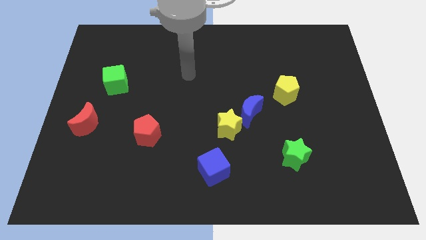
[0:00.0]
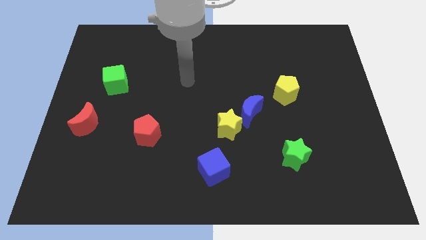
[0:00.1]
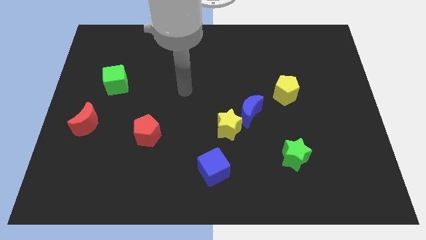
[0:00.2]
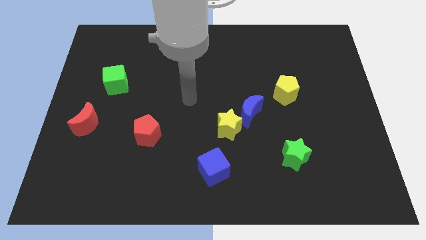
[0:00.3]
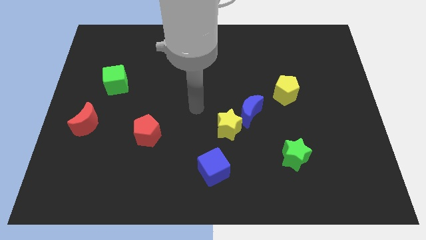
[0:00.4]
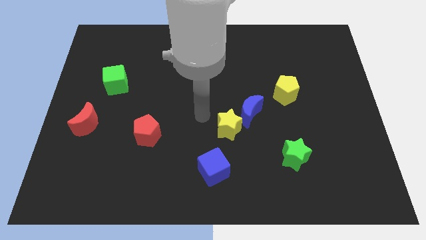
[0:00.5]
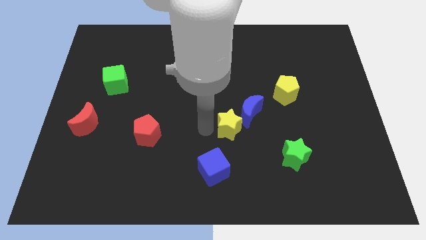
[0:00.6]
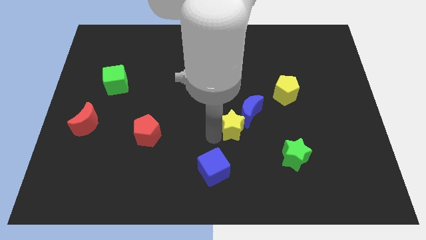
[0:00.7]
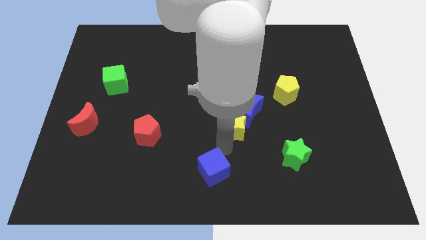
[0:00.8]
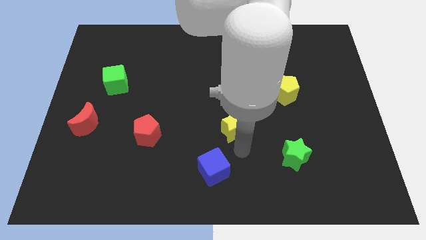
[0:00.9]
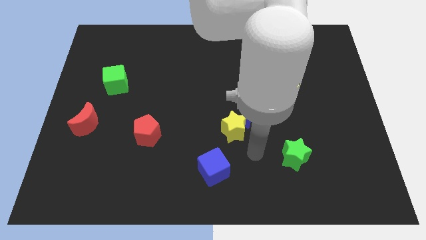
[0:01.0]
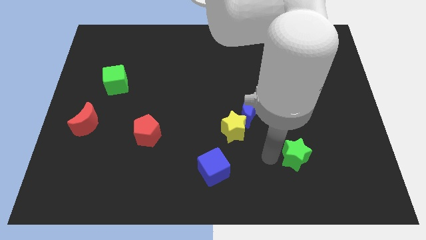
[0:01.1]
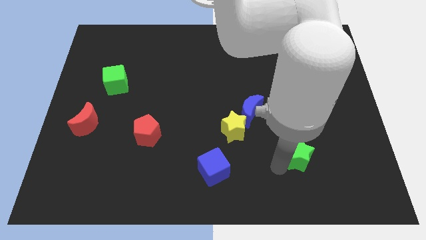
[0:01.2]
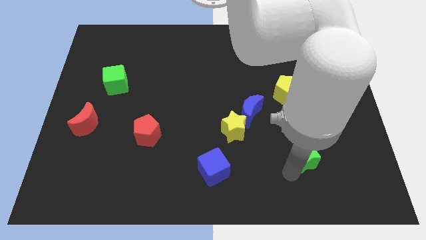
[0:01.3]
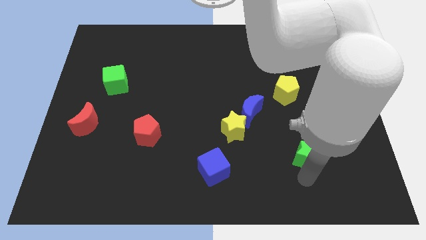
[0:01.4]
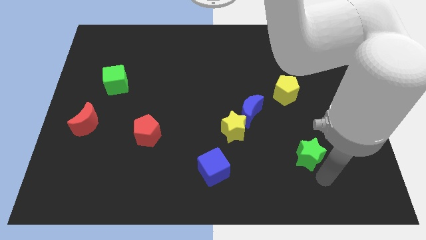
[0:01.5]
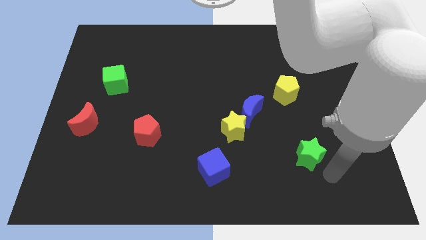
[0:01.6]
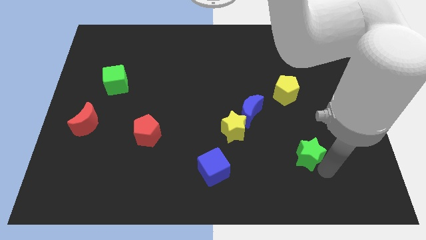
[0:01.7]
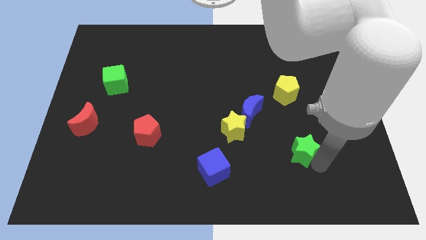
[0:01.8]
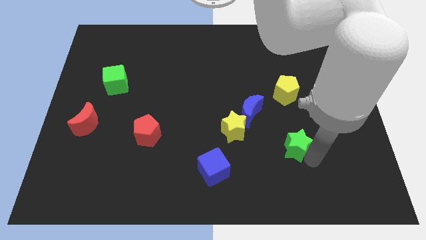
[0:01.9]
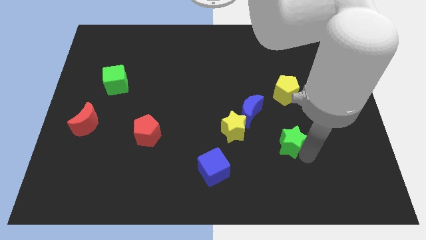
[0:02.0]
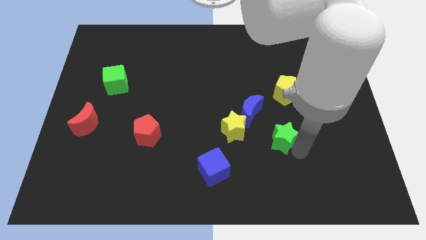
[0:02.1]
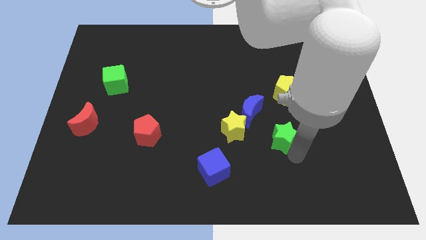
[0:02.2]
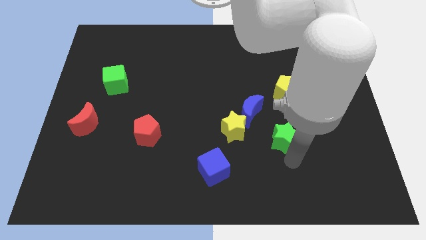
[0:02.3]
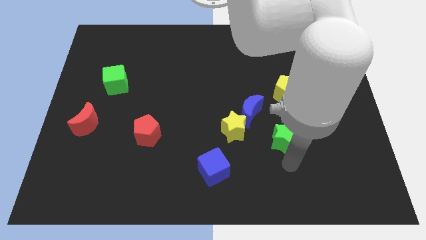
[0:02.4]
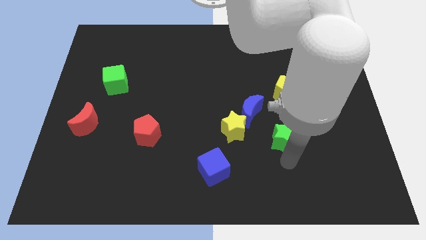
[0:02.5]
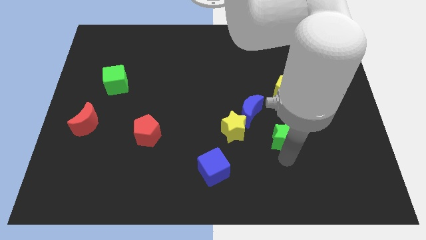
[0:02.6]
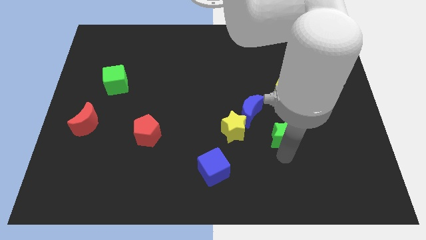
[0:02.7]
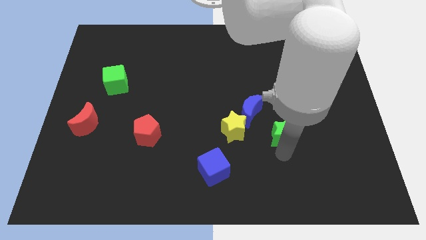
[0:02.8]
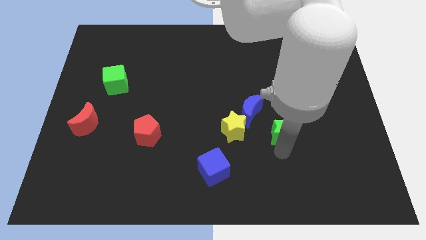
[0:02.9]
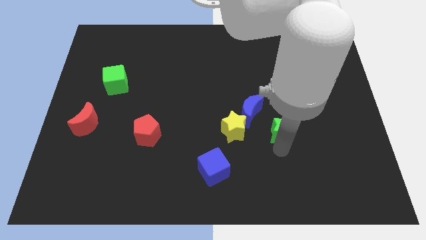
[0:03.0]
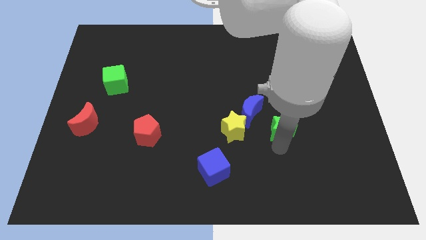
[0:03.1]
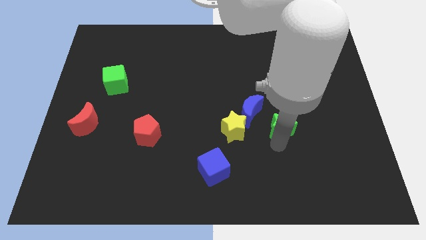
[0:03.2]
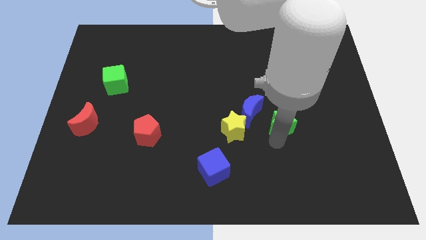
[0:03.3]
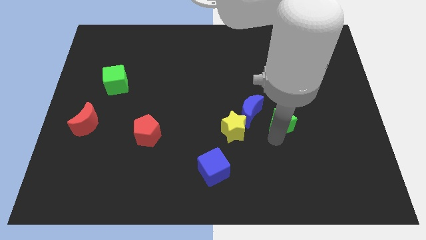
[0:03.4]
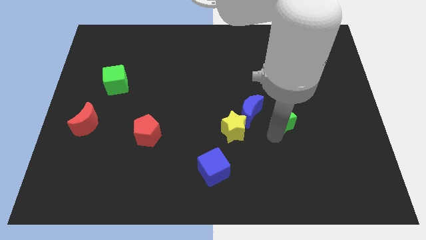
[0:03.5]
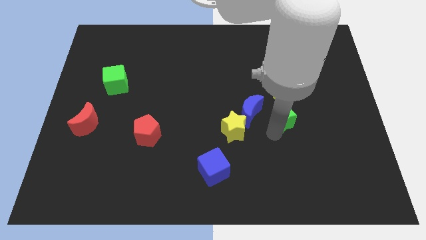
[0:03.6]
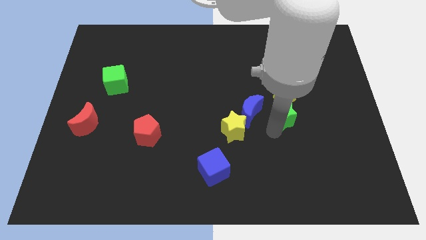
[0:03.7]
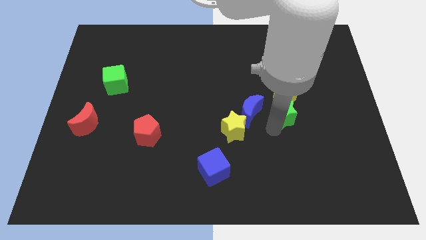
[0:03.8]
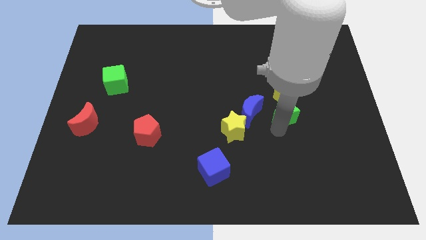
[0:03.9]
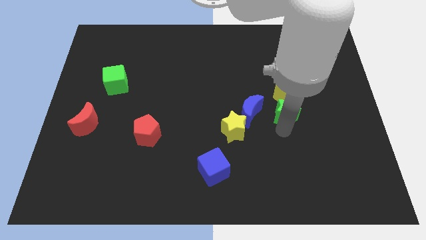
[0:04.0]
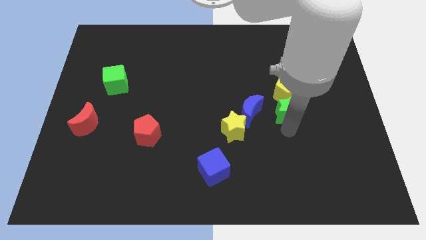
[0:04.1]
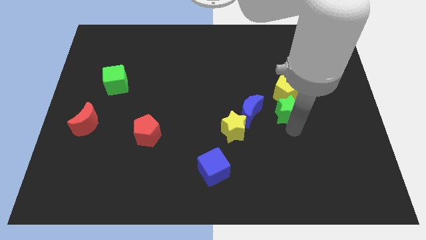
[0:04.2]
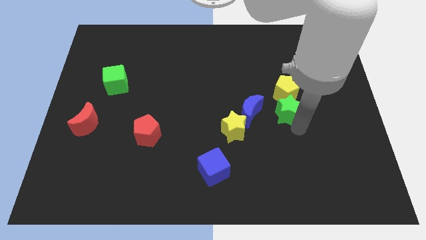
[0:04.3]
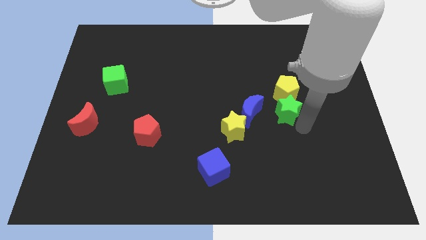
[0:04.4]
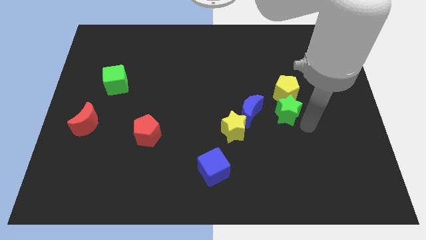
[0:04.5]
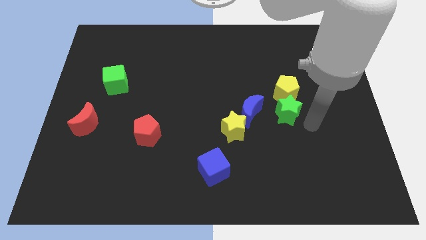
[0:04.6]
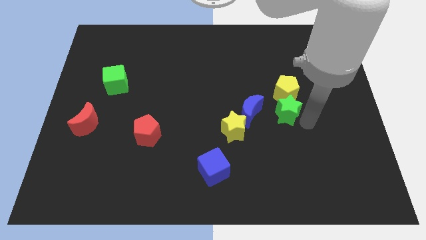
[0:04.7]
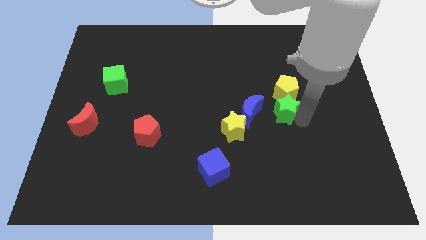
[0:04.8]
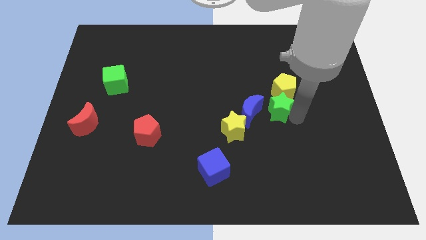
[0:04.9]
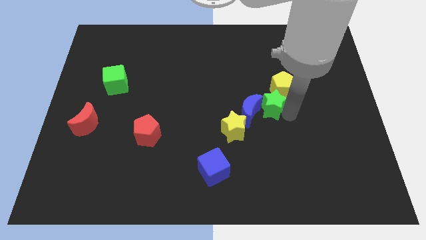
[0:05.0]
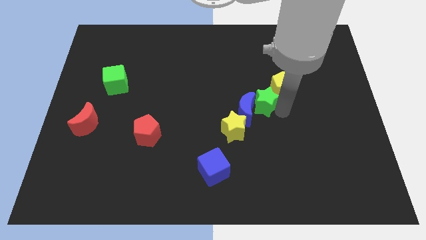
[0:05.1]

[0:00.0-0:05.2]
move the green star to the middle of the board

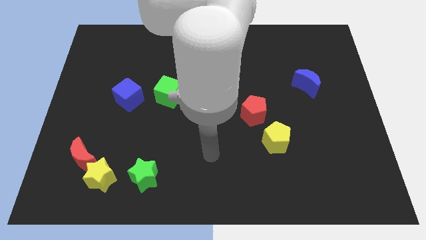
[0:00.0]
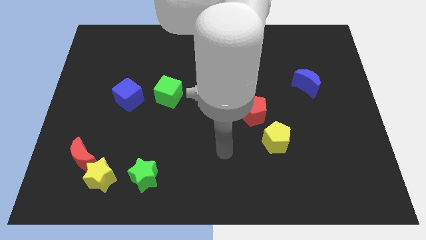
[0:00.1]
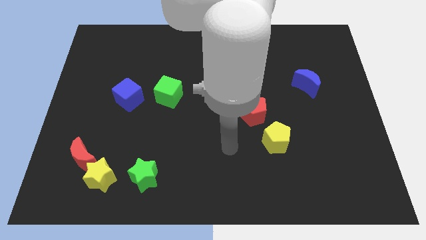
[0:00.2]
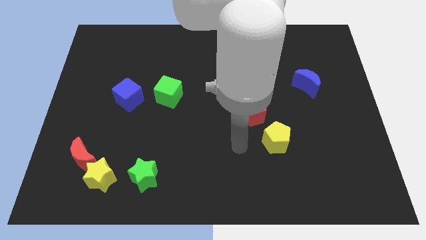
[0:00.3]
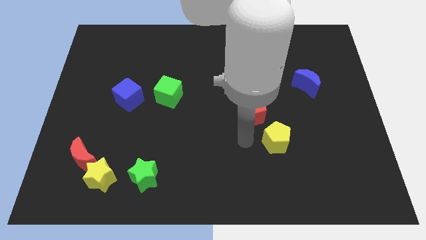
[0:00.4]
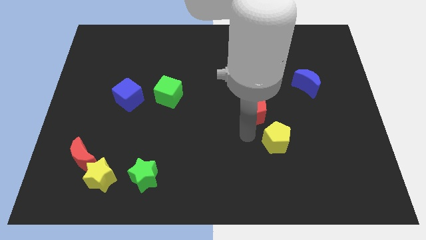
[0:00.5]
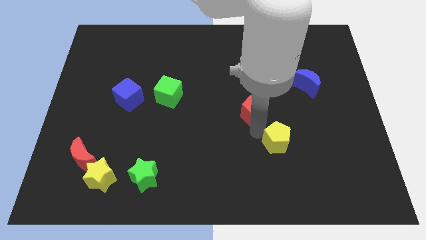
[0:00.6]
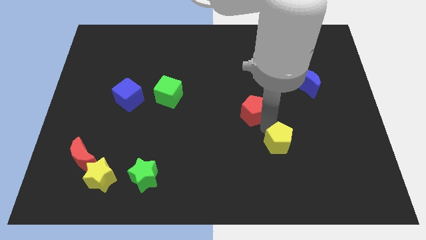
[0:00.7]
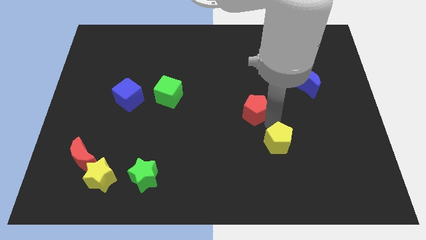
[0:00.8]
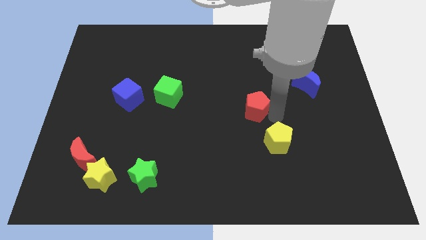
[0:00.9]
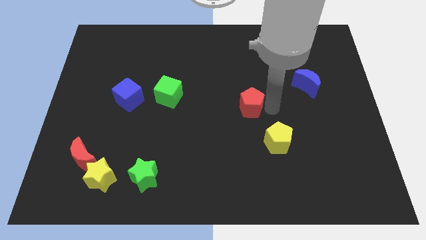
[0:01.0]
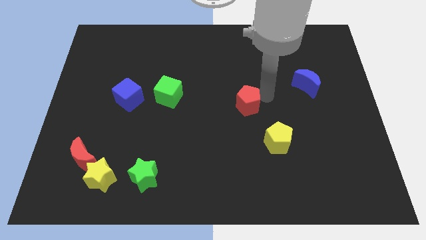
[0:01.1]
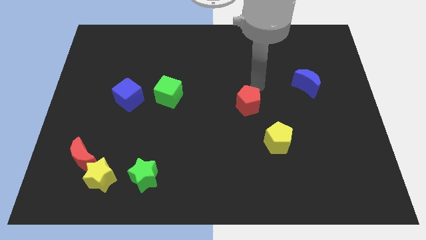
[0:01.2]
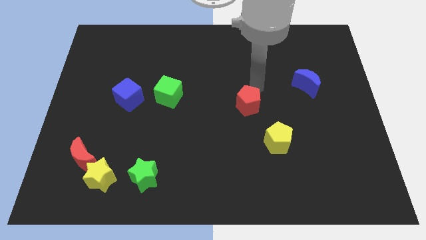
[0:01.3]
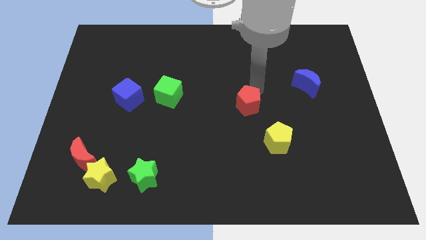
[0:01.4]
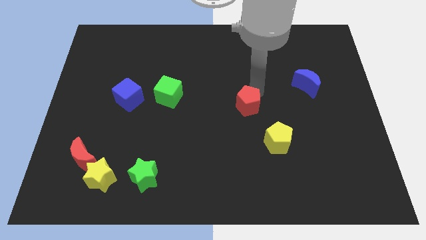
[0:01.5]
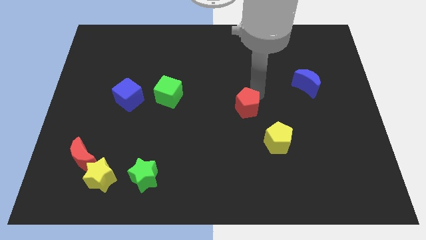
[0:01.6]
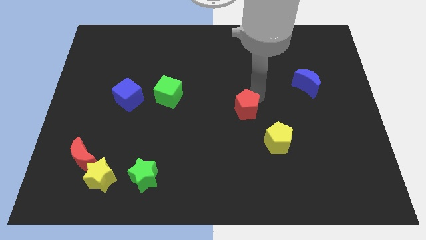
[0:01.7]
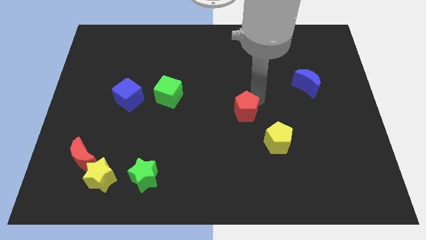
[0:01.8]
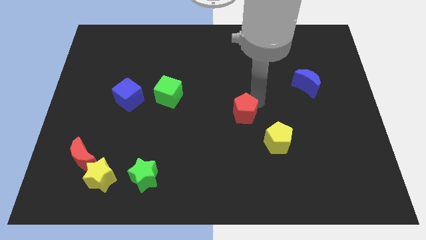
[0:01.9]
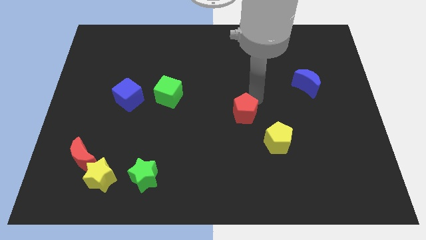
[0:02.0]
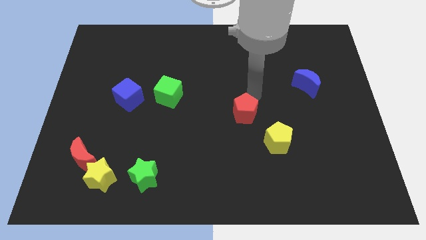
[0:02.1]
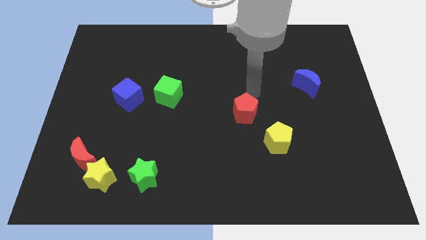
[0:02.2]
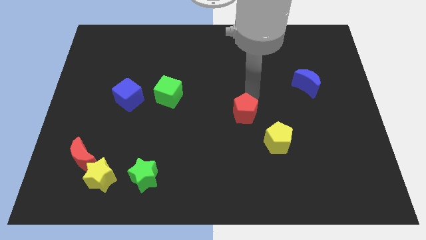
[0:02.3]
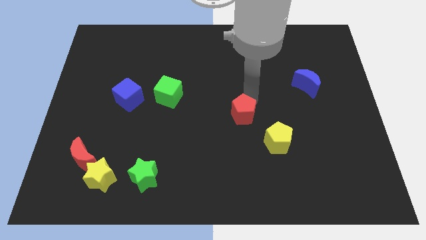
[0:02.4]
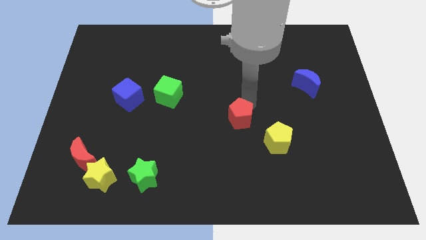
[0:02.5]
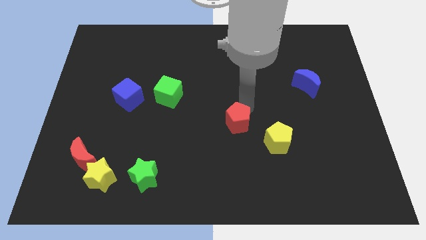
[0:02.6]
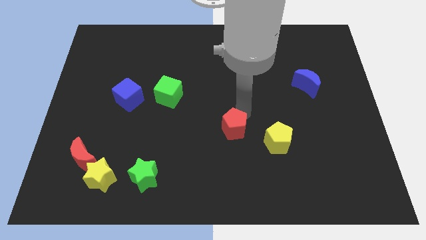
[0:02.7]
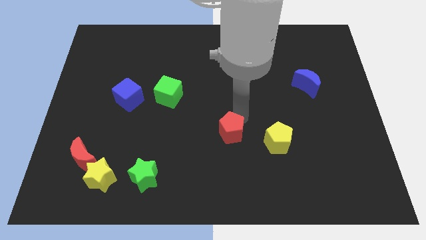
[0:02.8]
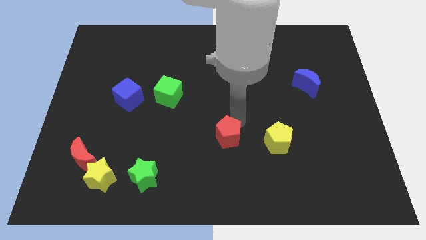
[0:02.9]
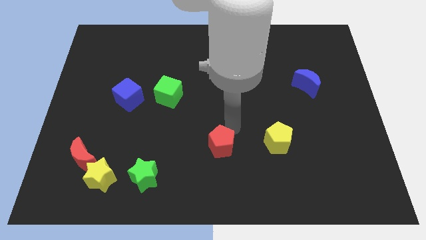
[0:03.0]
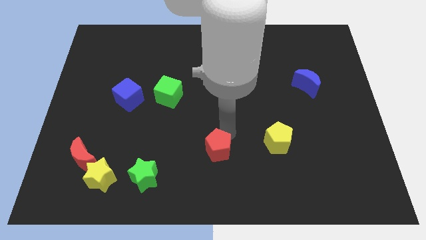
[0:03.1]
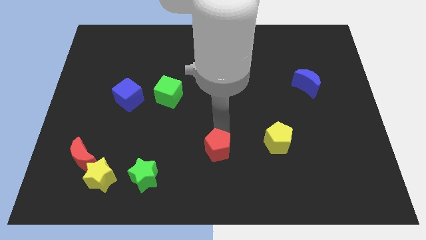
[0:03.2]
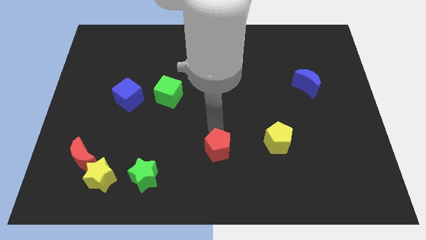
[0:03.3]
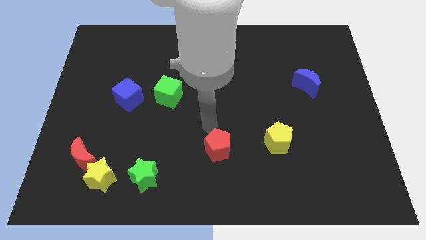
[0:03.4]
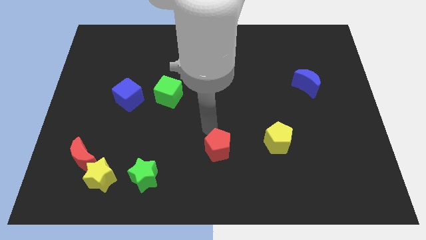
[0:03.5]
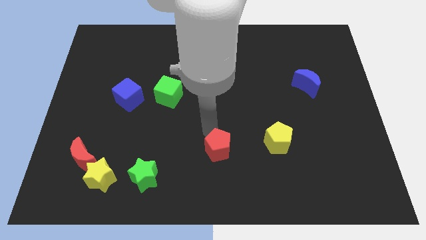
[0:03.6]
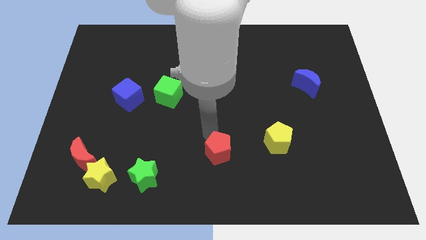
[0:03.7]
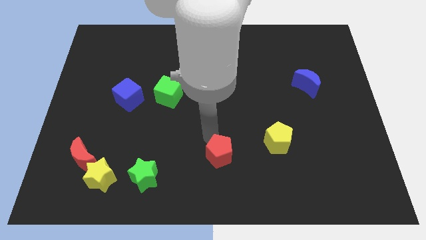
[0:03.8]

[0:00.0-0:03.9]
slide the red pentagon to the bottom
